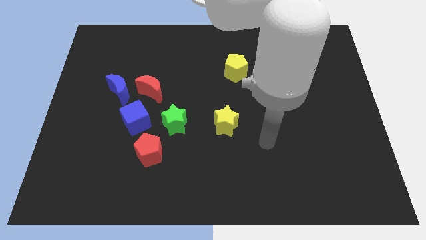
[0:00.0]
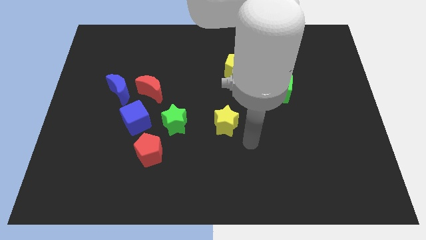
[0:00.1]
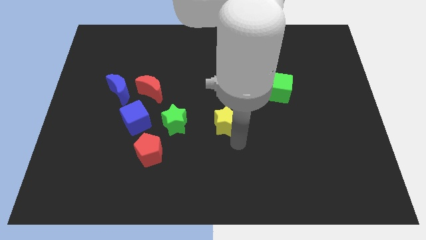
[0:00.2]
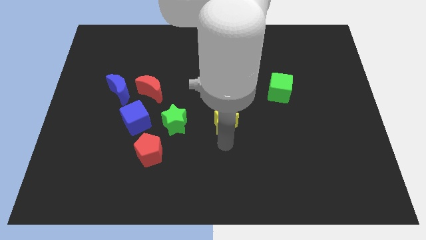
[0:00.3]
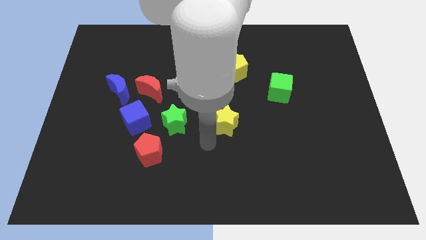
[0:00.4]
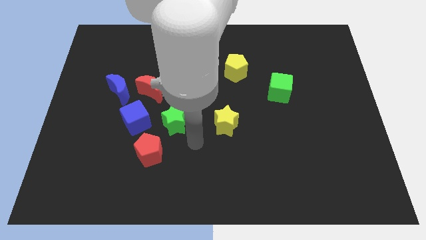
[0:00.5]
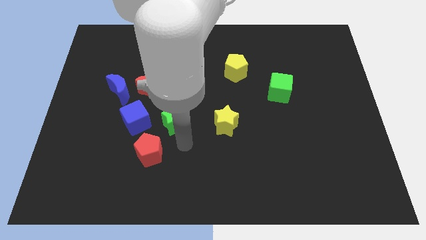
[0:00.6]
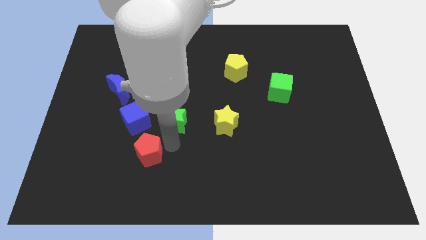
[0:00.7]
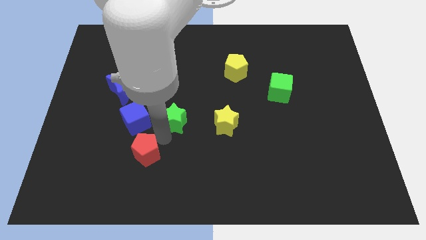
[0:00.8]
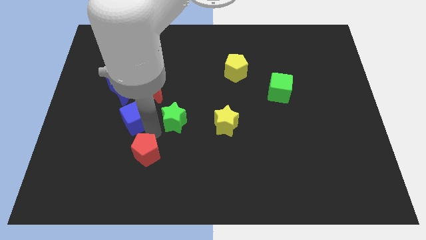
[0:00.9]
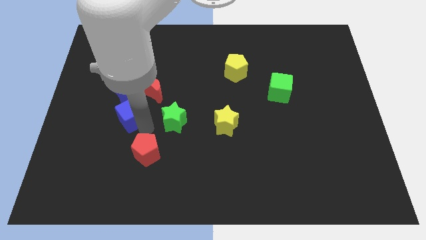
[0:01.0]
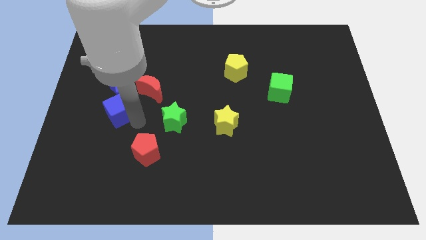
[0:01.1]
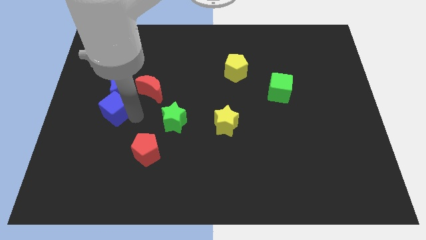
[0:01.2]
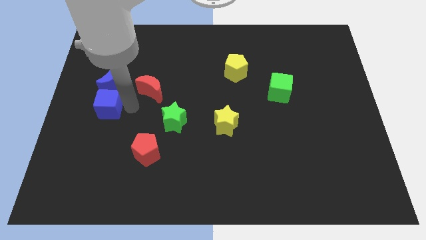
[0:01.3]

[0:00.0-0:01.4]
separate the red moon from the blue moon and blue cube

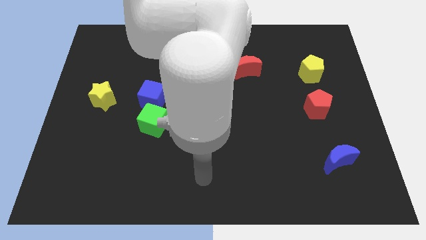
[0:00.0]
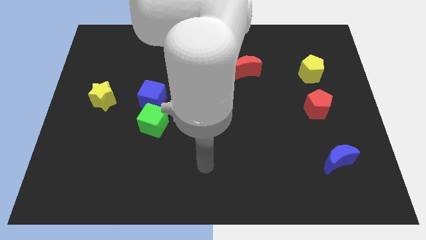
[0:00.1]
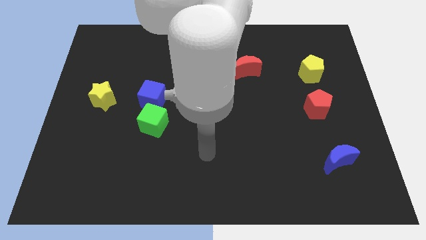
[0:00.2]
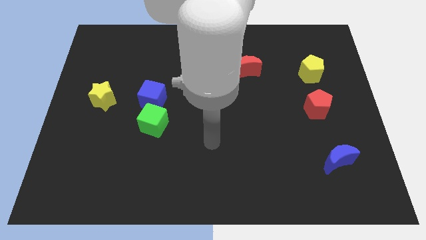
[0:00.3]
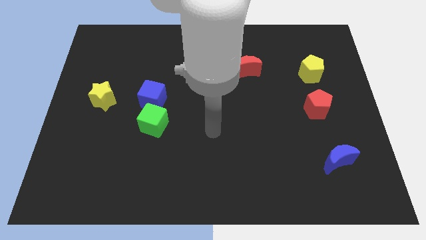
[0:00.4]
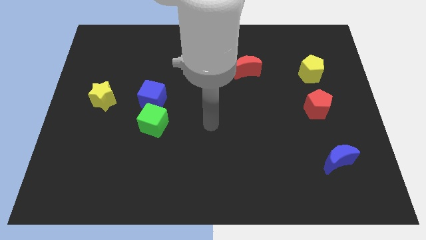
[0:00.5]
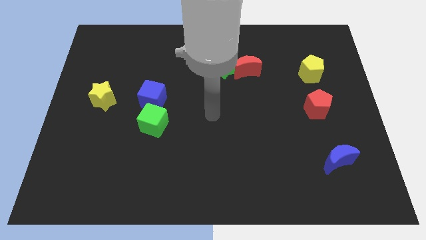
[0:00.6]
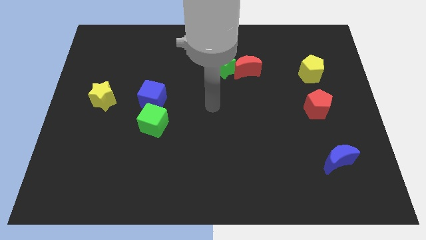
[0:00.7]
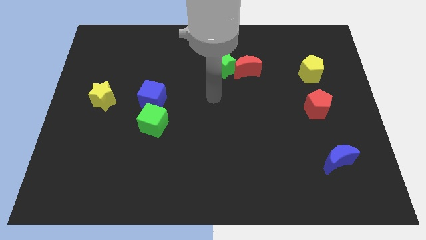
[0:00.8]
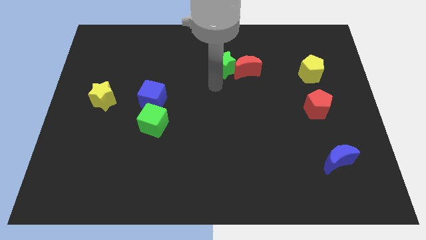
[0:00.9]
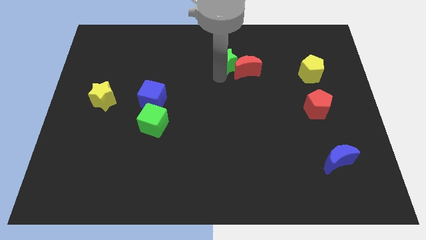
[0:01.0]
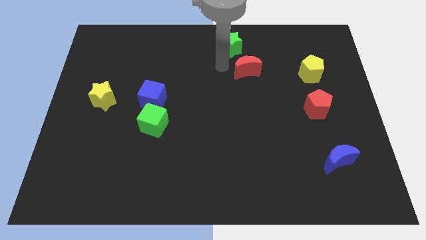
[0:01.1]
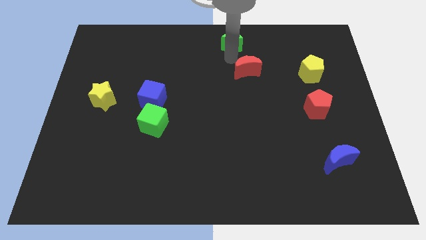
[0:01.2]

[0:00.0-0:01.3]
separate the red moon from the green star

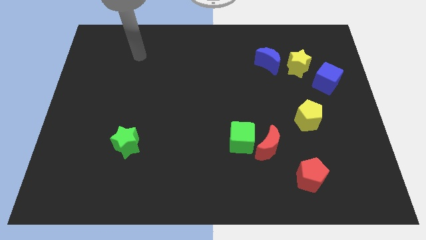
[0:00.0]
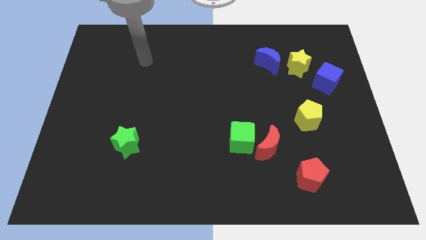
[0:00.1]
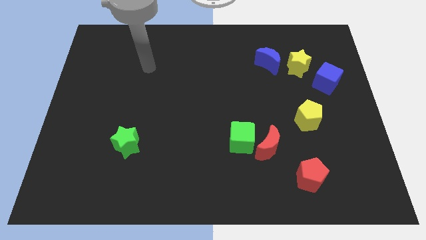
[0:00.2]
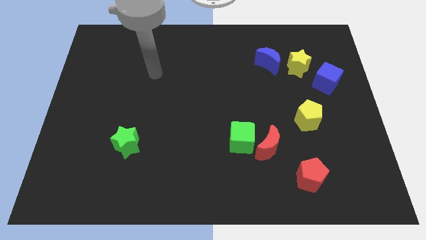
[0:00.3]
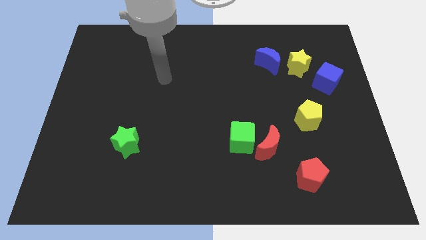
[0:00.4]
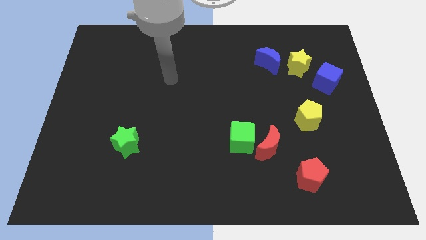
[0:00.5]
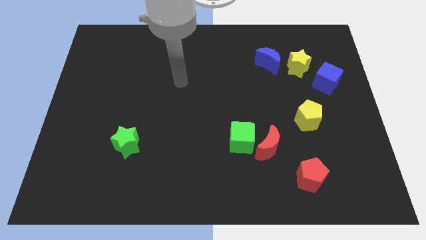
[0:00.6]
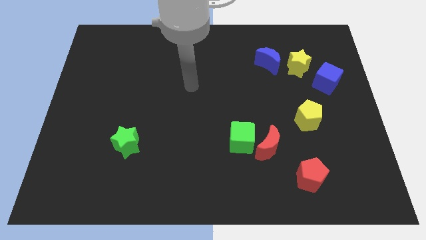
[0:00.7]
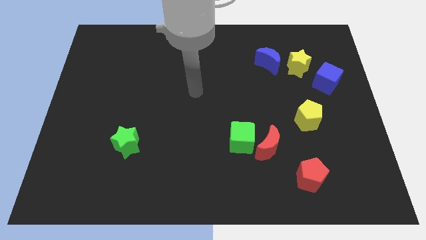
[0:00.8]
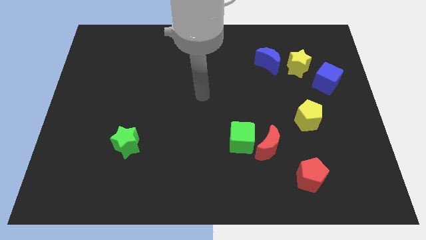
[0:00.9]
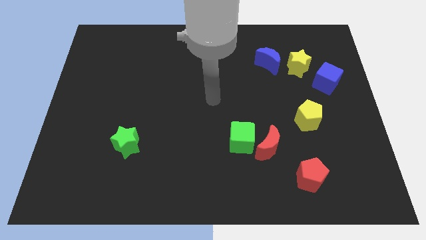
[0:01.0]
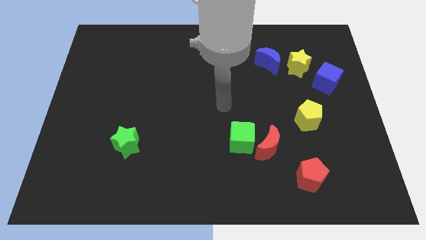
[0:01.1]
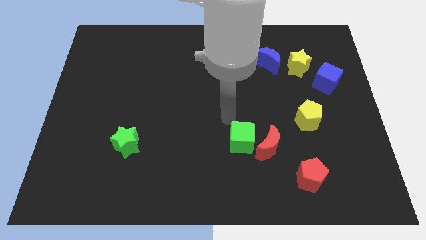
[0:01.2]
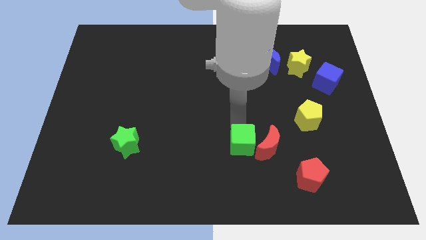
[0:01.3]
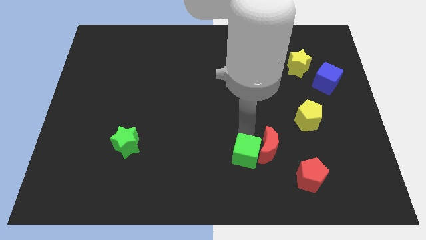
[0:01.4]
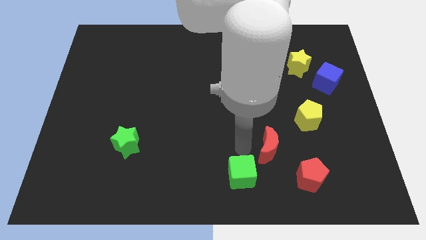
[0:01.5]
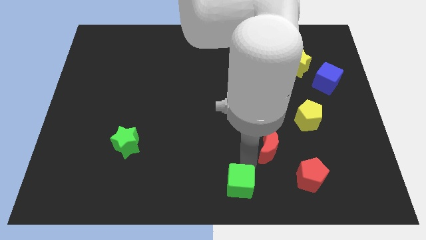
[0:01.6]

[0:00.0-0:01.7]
move the red moon away from the green cube

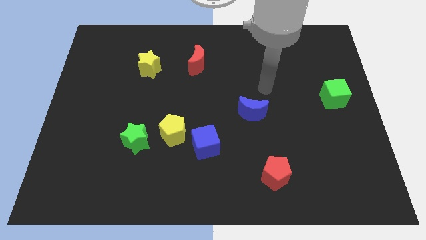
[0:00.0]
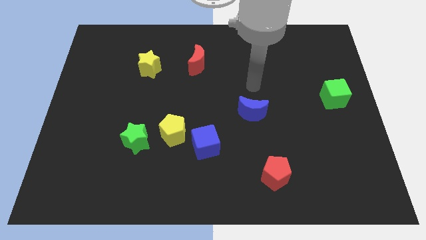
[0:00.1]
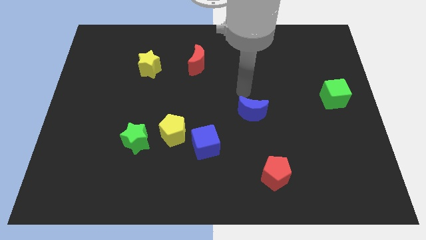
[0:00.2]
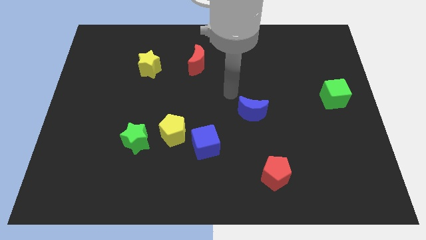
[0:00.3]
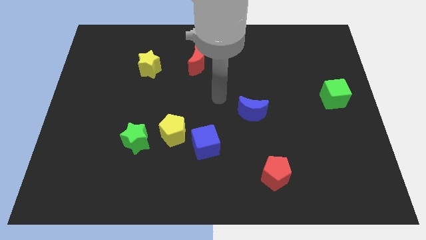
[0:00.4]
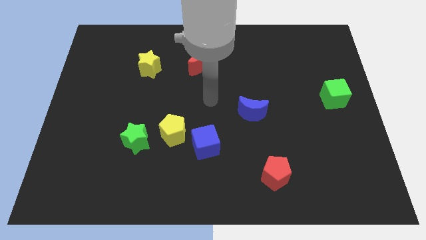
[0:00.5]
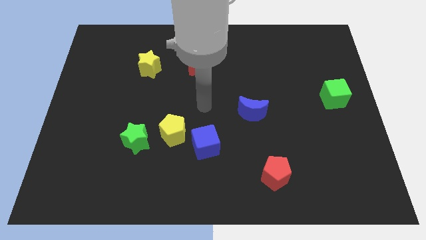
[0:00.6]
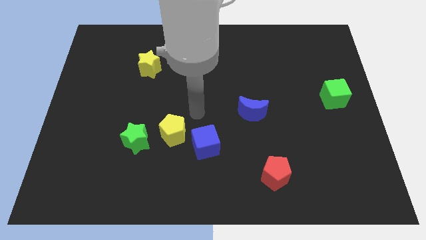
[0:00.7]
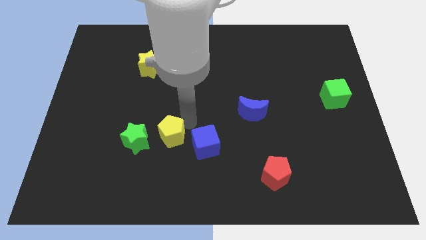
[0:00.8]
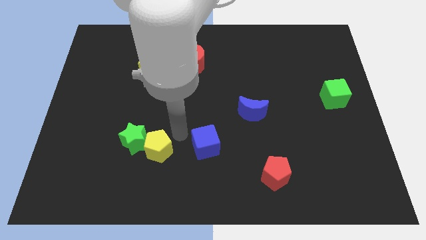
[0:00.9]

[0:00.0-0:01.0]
move the blue cube away from the yellow pentagon

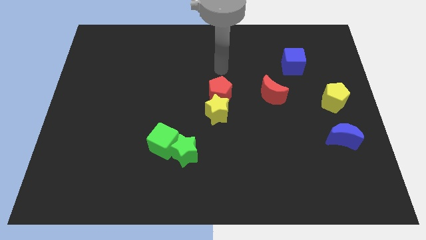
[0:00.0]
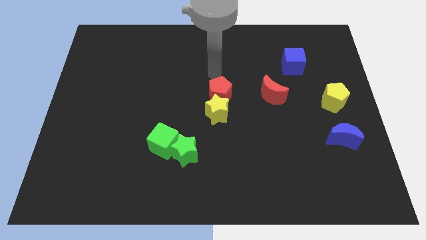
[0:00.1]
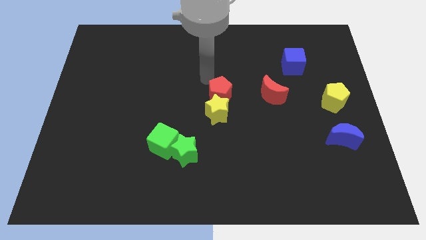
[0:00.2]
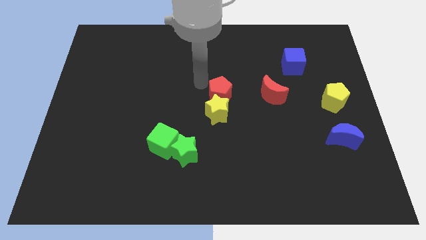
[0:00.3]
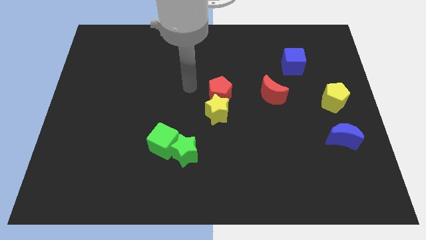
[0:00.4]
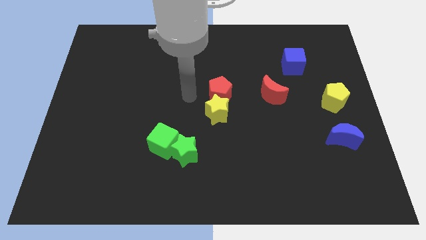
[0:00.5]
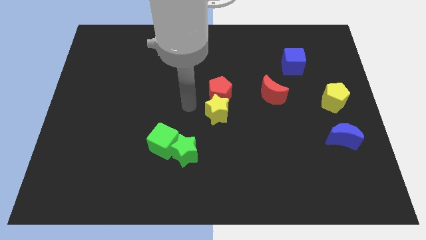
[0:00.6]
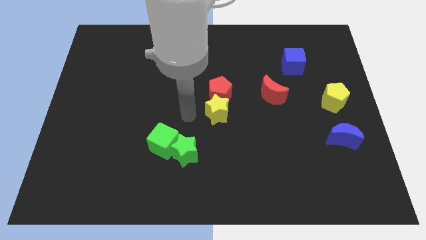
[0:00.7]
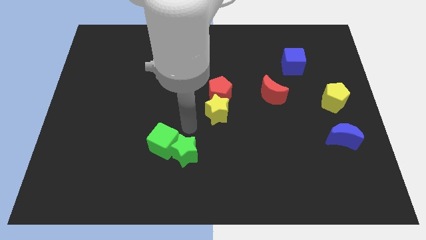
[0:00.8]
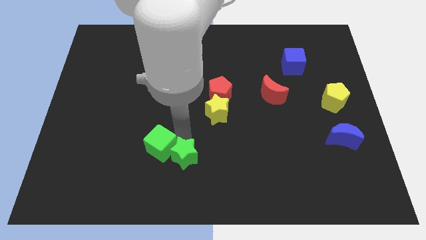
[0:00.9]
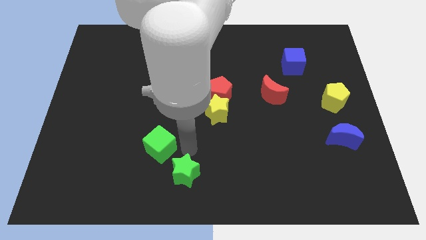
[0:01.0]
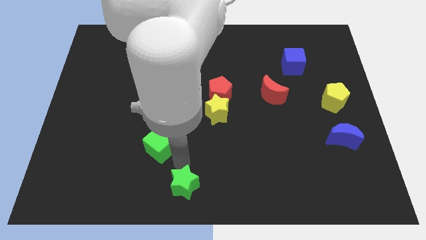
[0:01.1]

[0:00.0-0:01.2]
separate the green cube from the green star

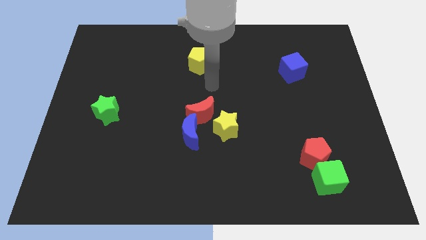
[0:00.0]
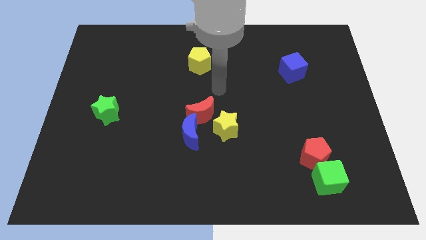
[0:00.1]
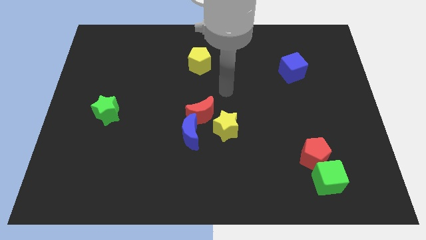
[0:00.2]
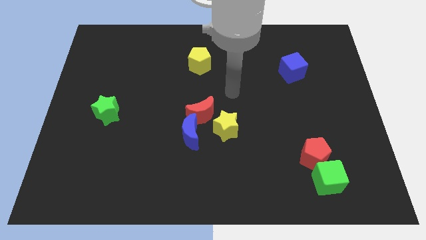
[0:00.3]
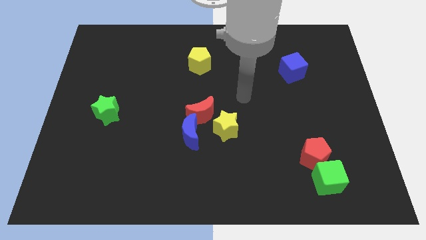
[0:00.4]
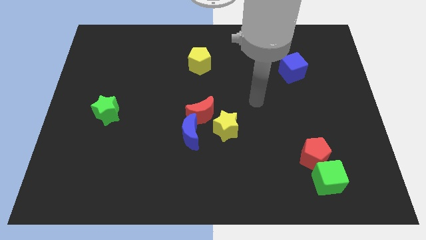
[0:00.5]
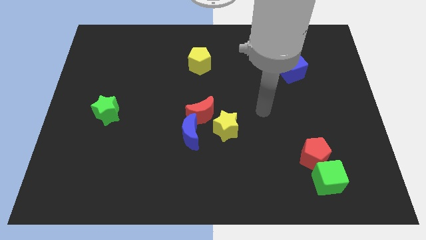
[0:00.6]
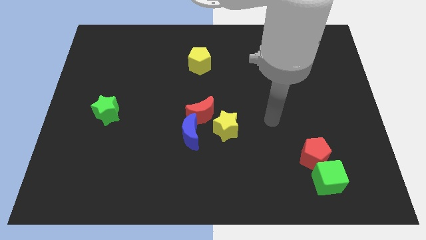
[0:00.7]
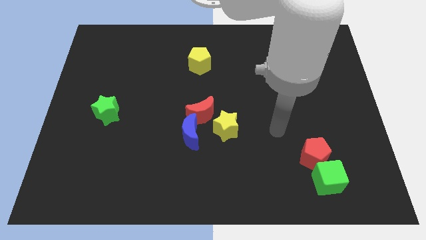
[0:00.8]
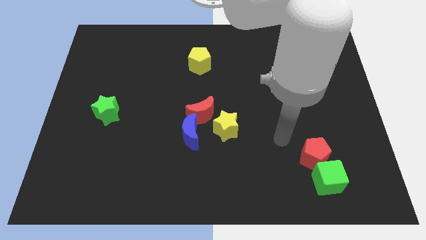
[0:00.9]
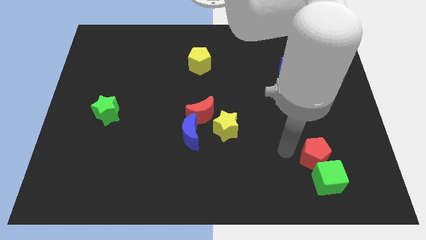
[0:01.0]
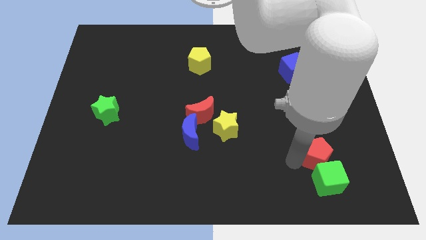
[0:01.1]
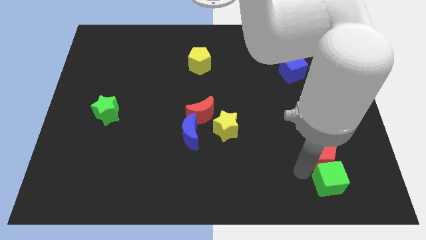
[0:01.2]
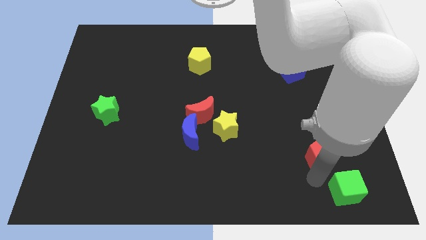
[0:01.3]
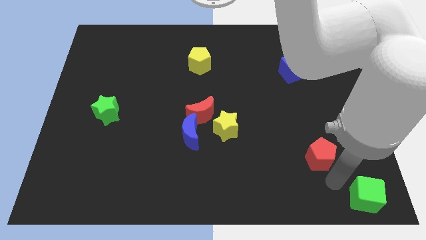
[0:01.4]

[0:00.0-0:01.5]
move the red pentagon away from the green cube

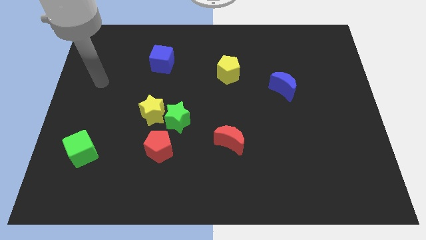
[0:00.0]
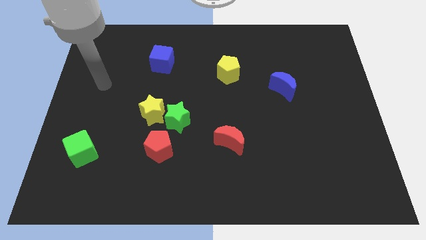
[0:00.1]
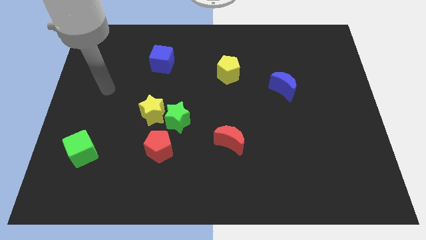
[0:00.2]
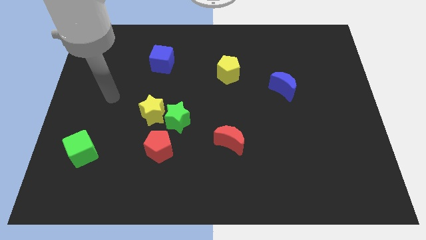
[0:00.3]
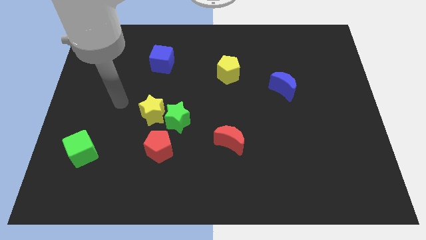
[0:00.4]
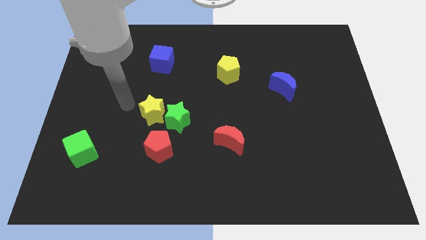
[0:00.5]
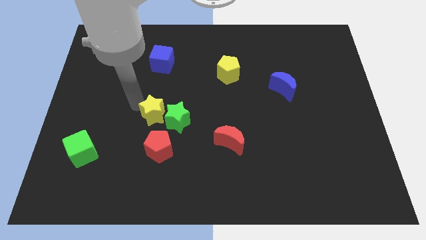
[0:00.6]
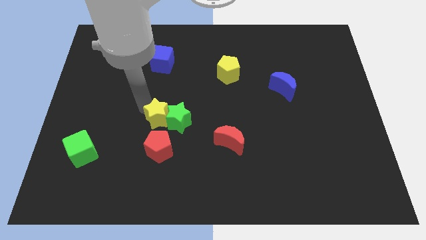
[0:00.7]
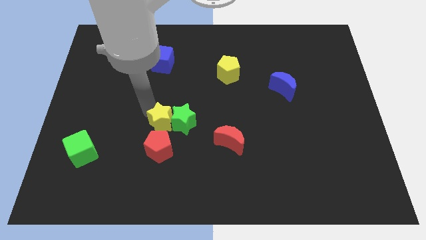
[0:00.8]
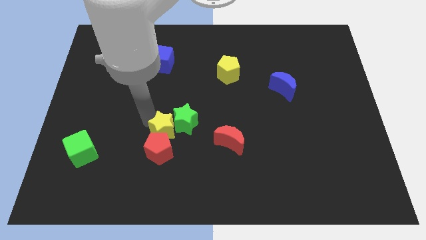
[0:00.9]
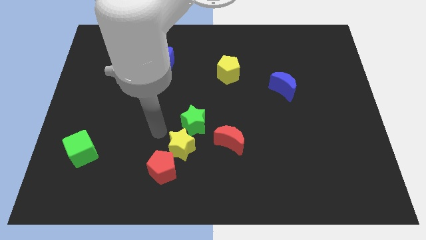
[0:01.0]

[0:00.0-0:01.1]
separate the green star from the yellow star and red pentagon
